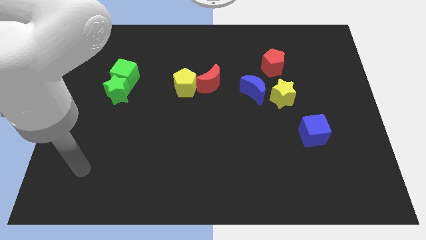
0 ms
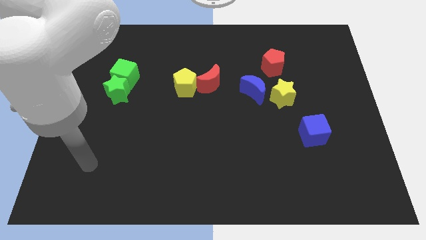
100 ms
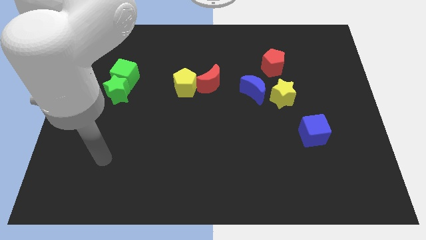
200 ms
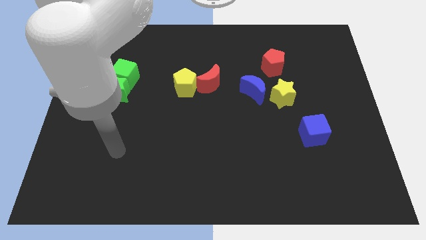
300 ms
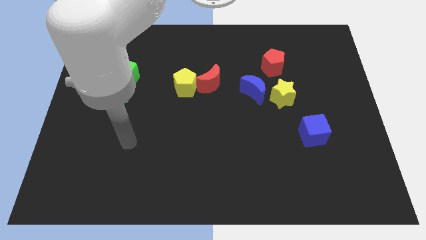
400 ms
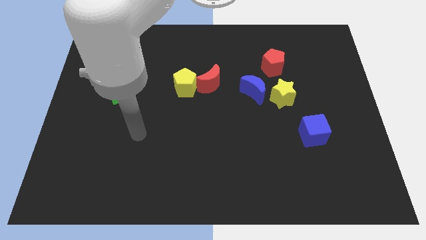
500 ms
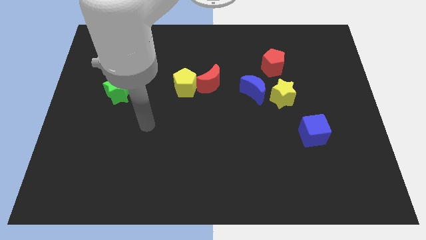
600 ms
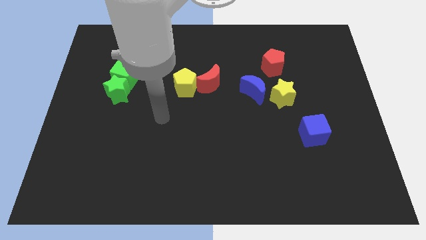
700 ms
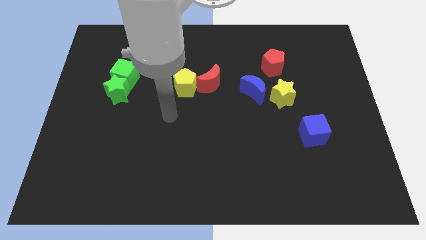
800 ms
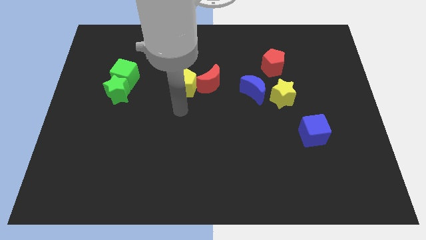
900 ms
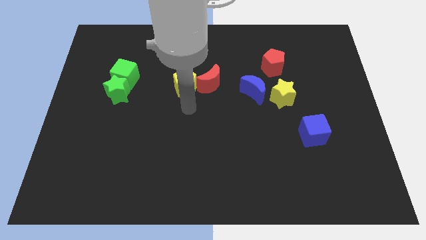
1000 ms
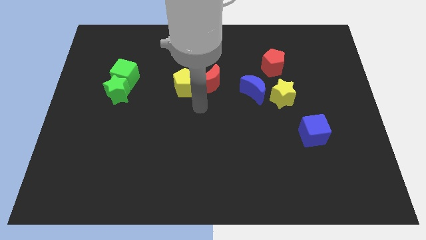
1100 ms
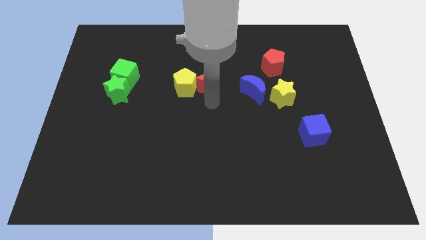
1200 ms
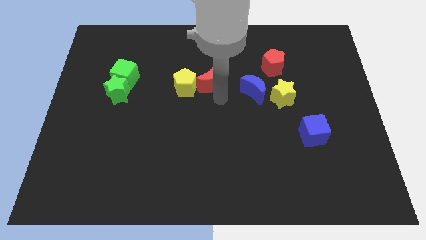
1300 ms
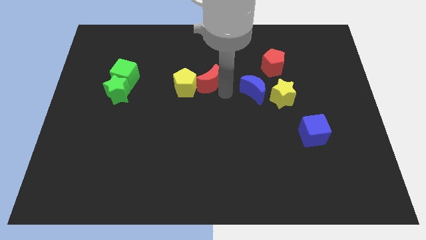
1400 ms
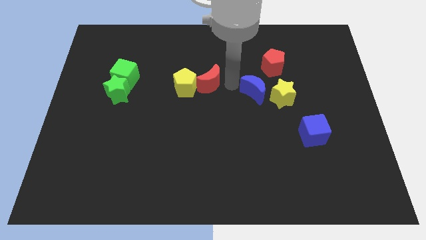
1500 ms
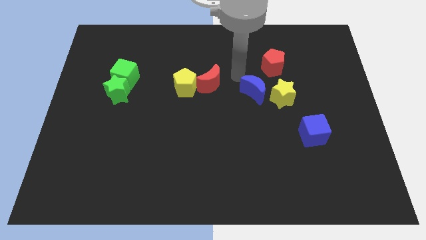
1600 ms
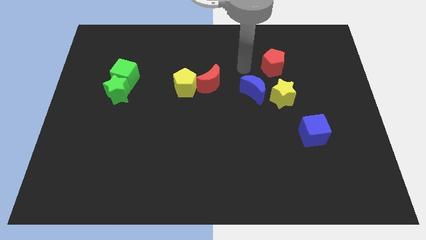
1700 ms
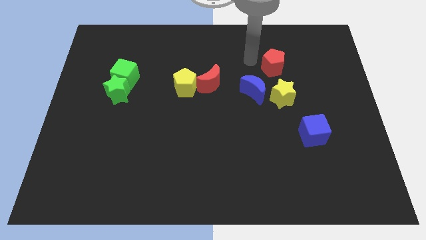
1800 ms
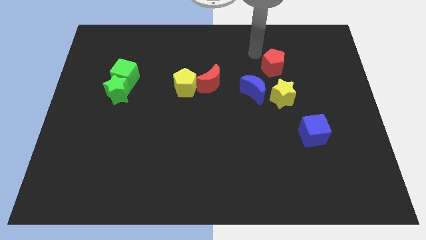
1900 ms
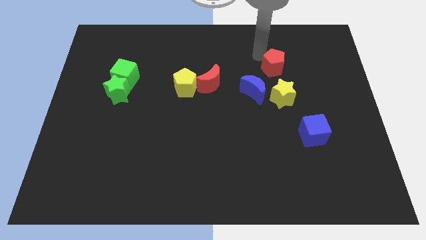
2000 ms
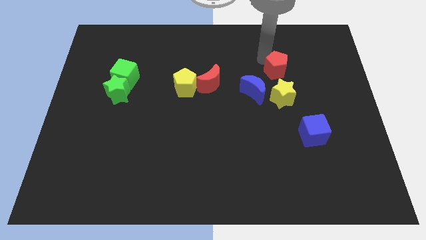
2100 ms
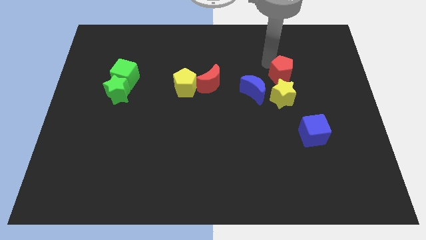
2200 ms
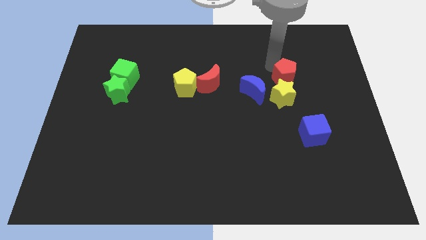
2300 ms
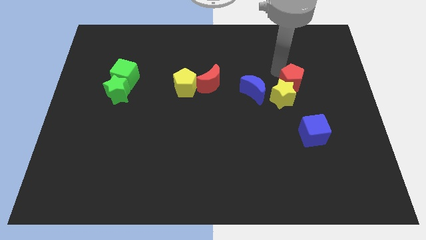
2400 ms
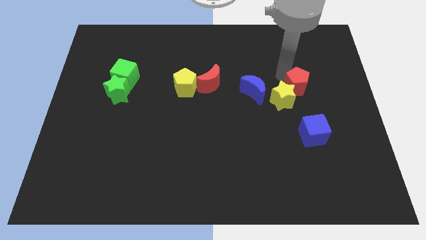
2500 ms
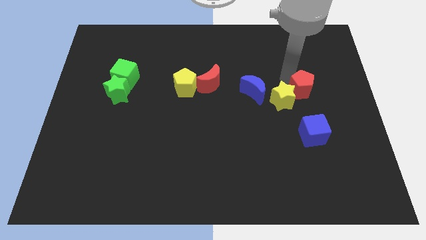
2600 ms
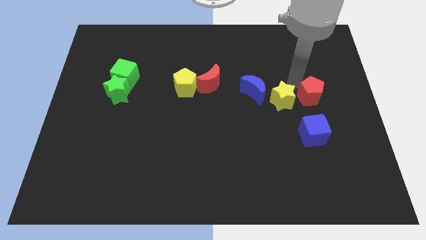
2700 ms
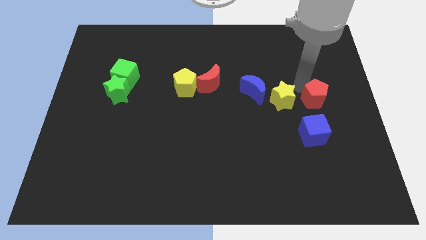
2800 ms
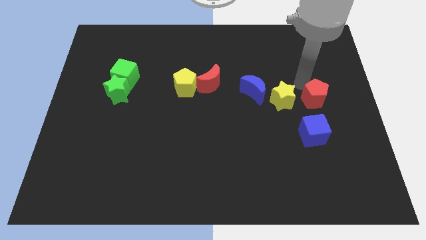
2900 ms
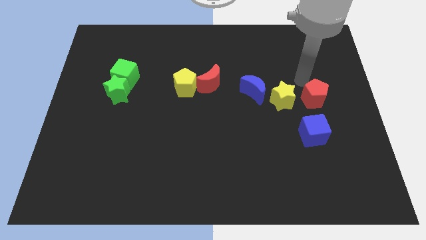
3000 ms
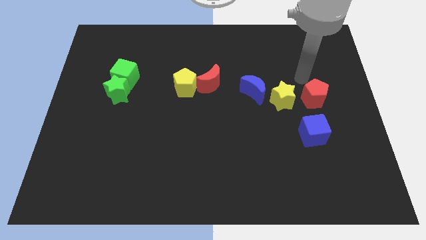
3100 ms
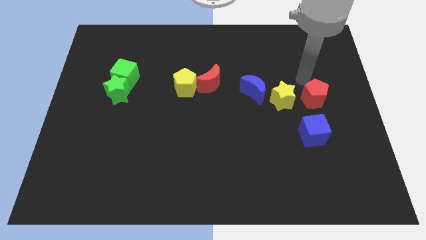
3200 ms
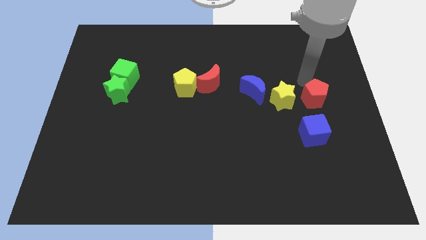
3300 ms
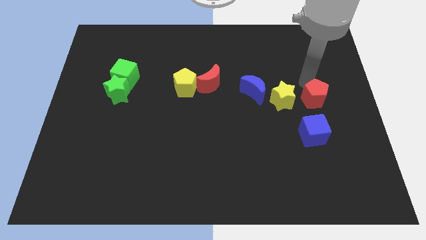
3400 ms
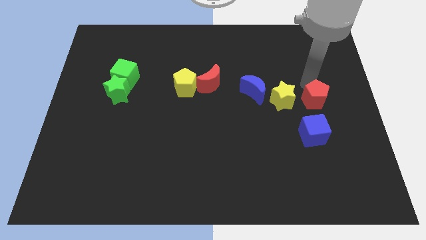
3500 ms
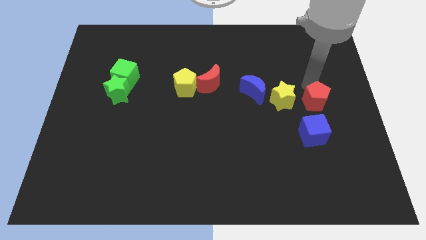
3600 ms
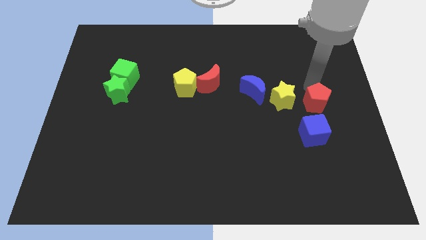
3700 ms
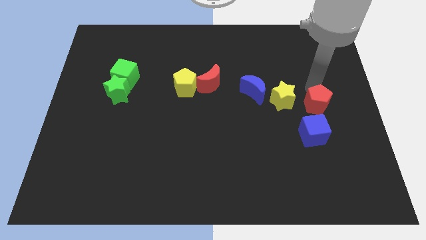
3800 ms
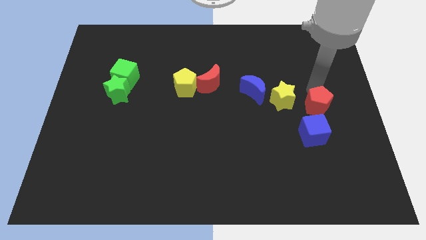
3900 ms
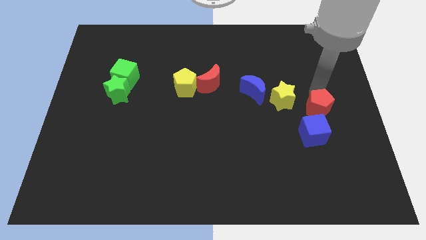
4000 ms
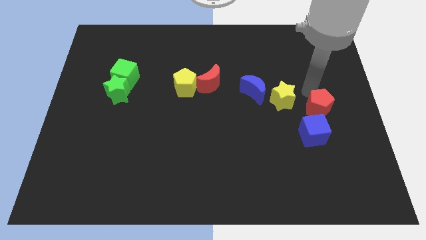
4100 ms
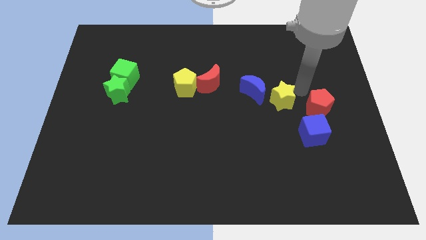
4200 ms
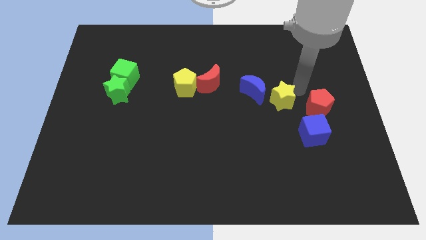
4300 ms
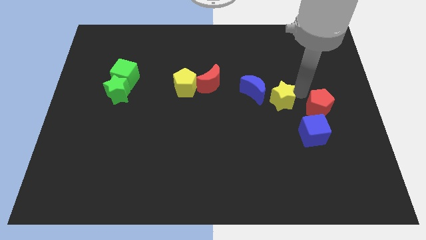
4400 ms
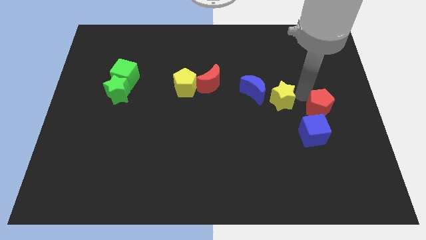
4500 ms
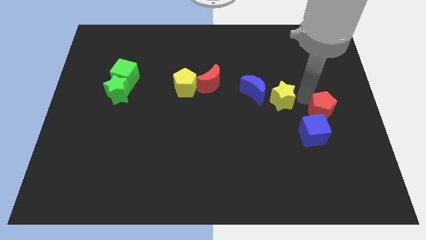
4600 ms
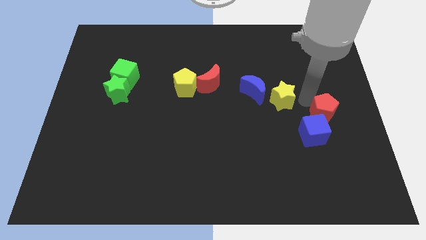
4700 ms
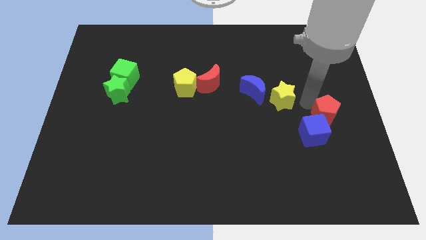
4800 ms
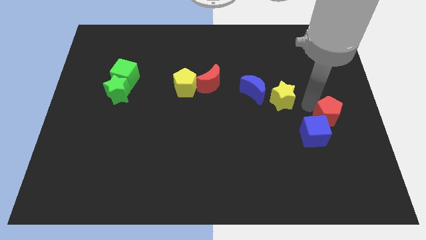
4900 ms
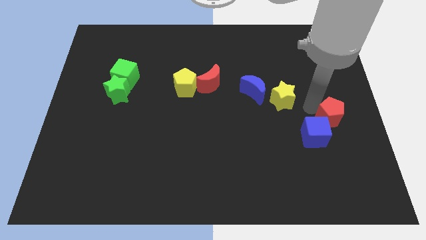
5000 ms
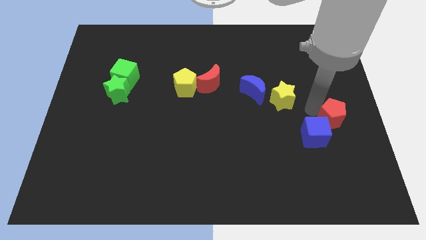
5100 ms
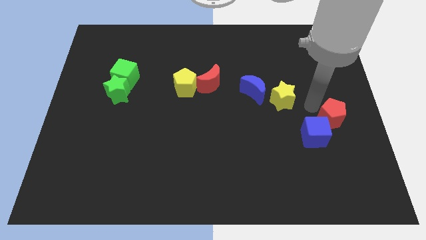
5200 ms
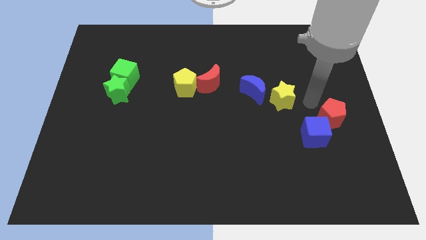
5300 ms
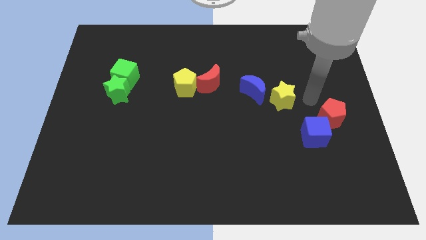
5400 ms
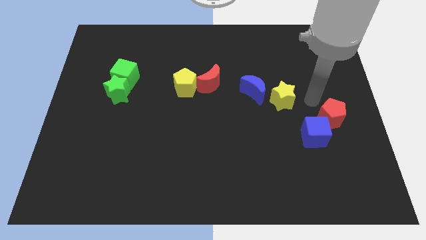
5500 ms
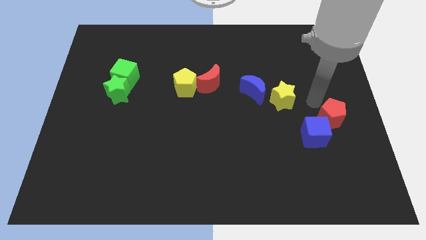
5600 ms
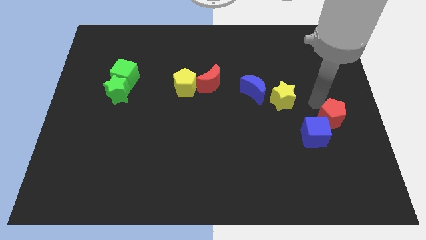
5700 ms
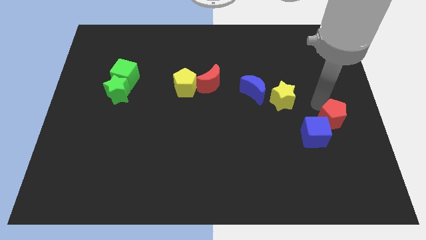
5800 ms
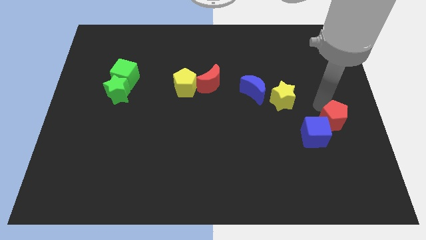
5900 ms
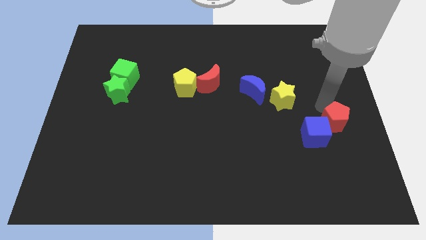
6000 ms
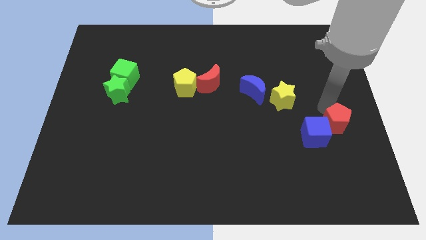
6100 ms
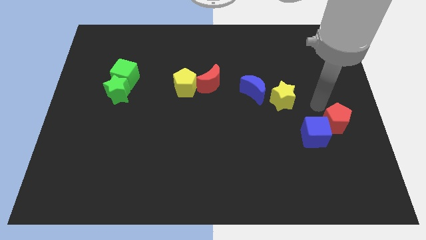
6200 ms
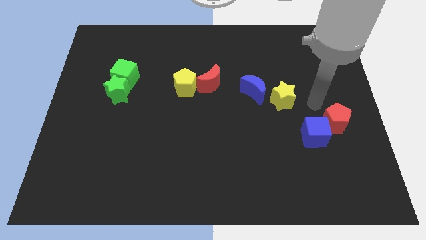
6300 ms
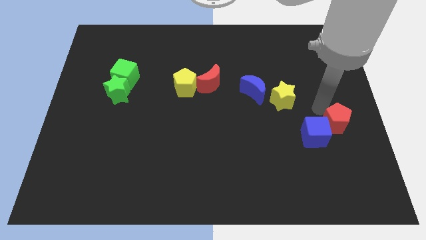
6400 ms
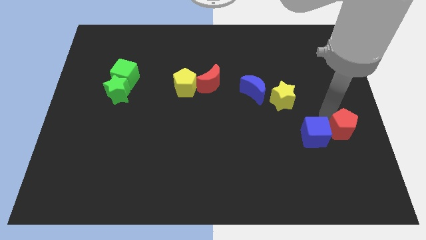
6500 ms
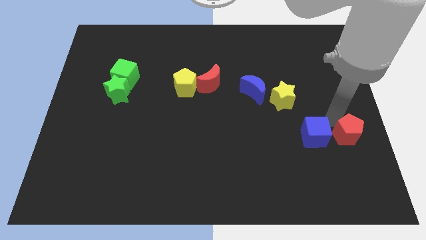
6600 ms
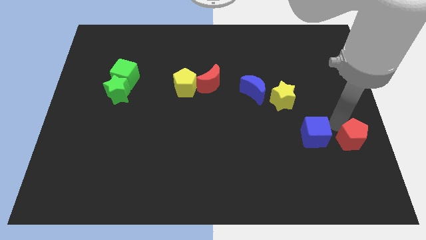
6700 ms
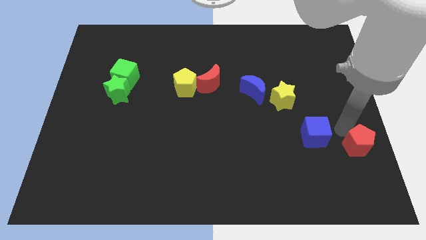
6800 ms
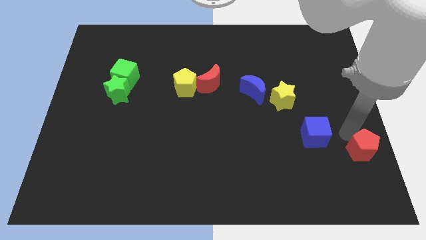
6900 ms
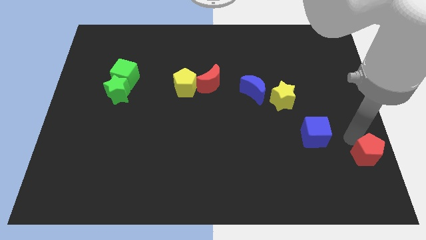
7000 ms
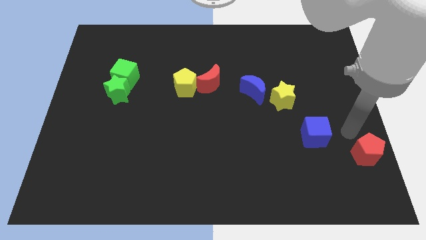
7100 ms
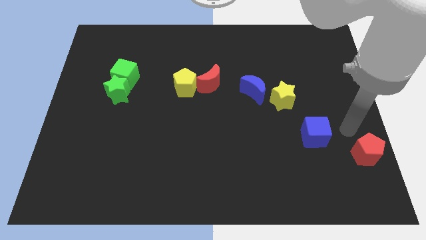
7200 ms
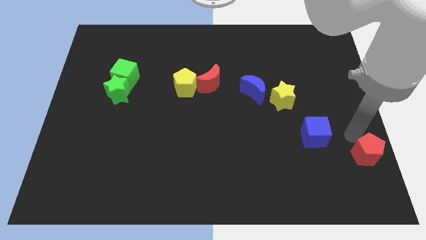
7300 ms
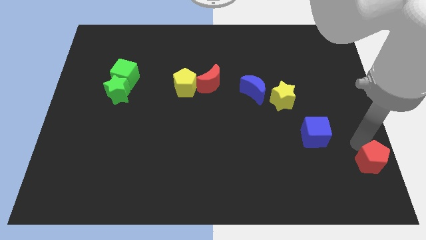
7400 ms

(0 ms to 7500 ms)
put the red pentagon to the lower right corner
